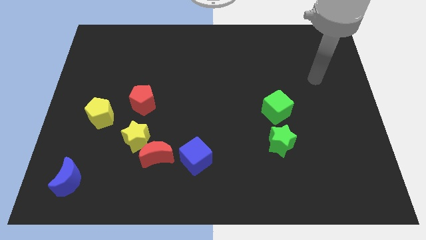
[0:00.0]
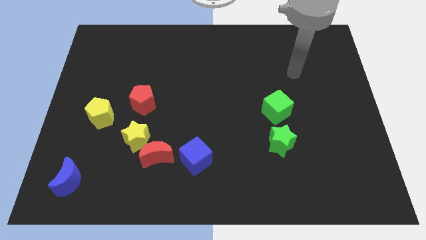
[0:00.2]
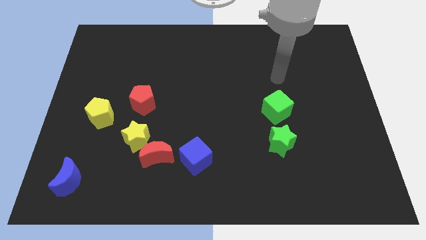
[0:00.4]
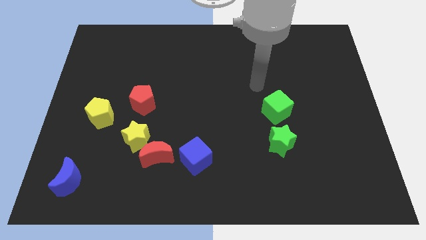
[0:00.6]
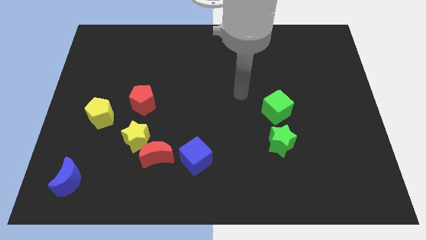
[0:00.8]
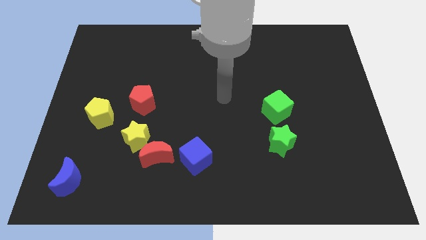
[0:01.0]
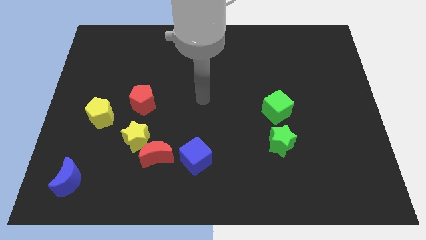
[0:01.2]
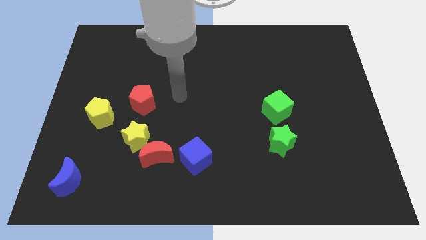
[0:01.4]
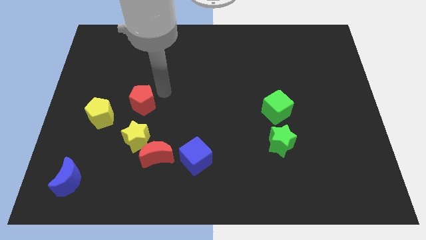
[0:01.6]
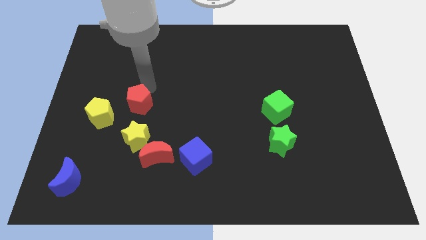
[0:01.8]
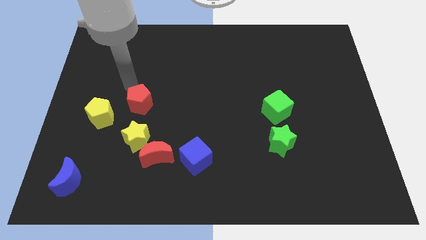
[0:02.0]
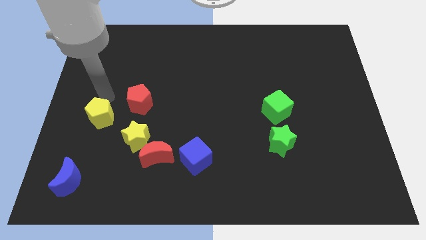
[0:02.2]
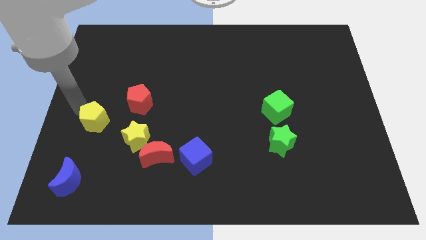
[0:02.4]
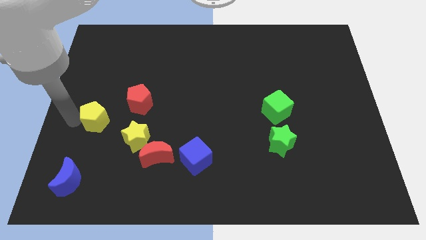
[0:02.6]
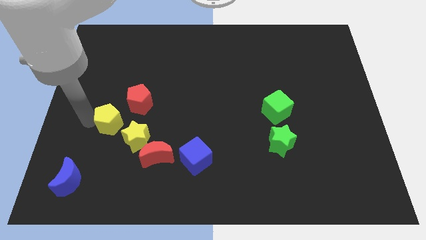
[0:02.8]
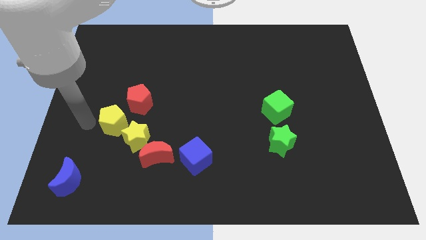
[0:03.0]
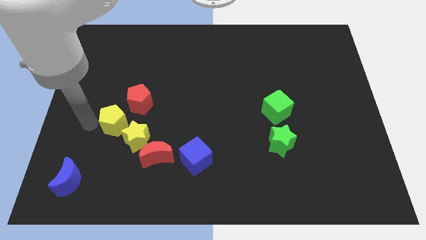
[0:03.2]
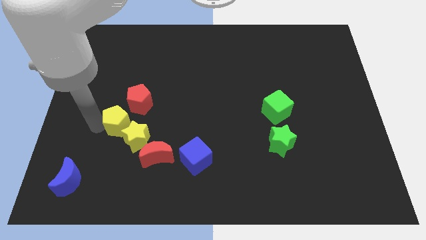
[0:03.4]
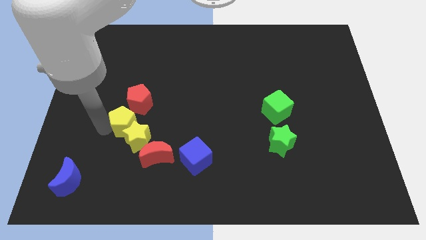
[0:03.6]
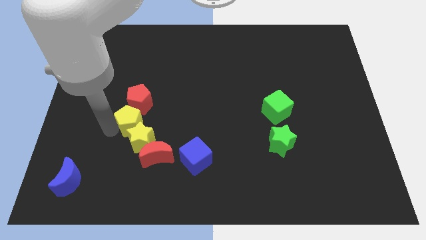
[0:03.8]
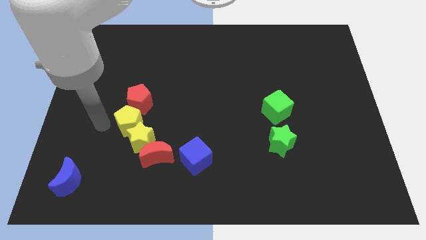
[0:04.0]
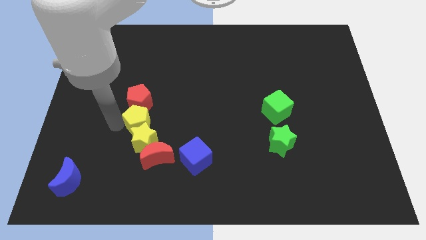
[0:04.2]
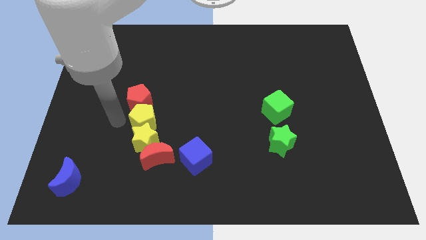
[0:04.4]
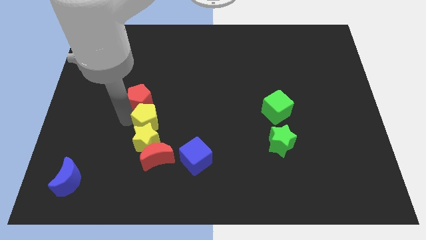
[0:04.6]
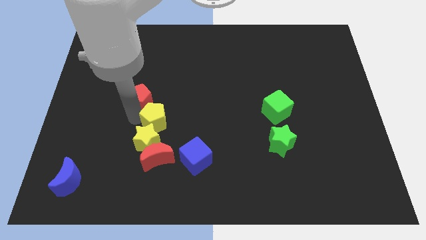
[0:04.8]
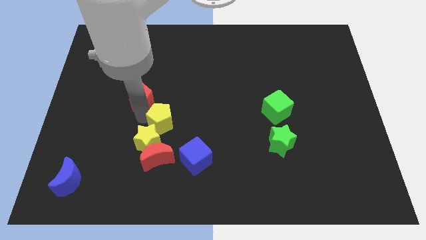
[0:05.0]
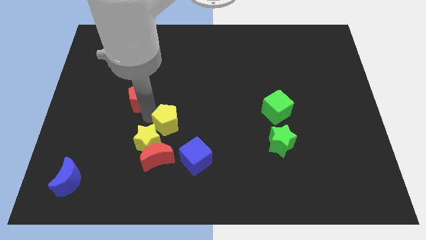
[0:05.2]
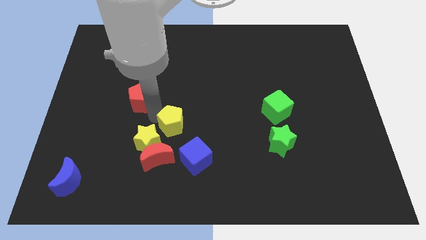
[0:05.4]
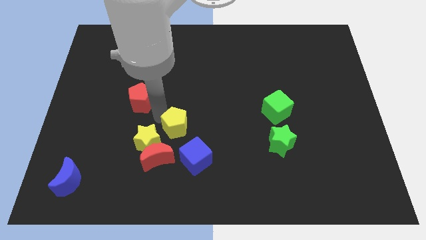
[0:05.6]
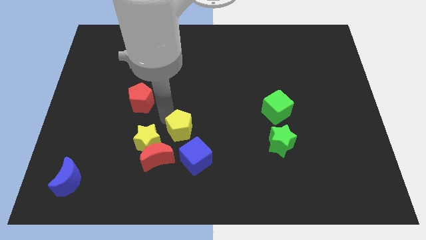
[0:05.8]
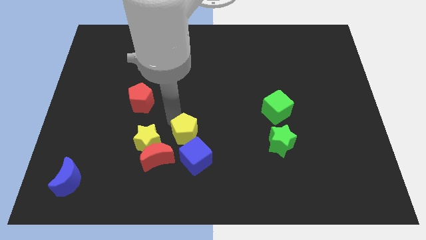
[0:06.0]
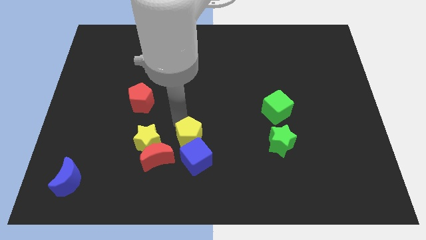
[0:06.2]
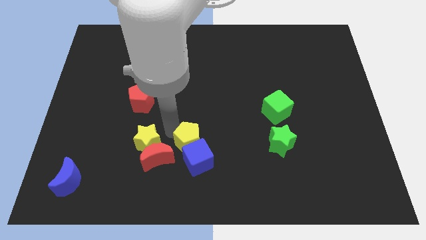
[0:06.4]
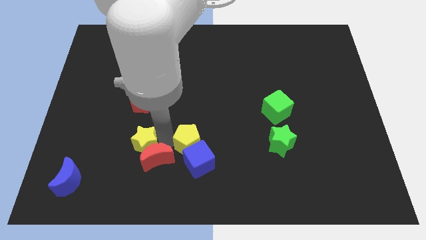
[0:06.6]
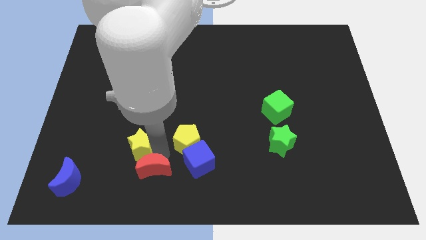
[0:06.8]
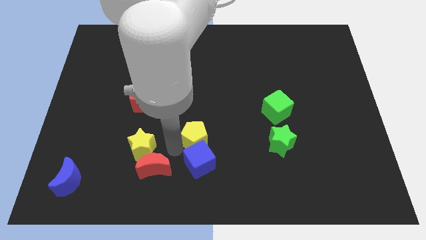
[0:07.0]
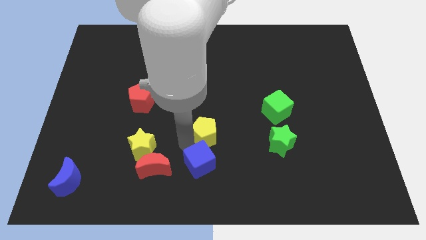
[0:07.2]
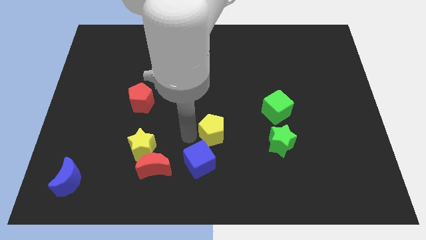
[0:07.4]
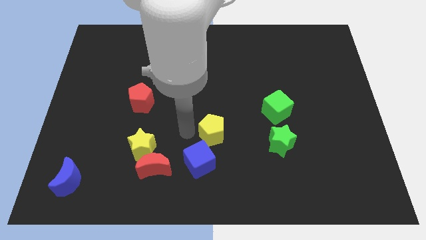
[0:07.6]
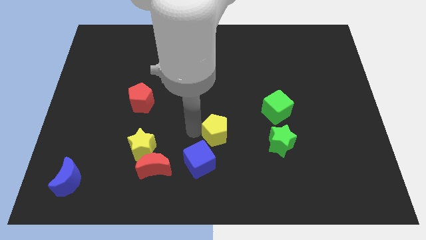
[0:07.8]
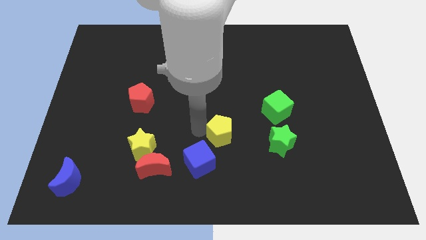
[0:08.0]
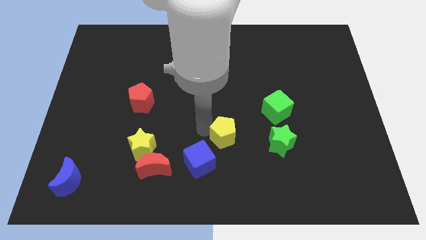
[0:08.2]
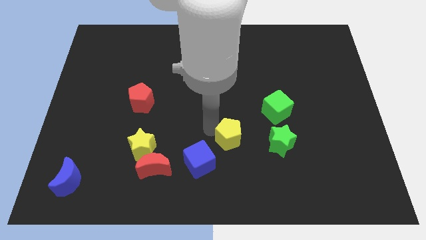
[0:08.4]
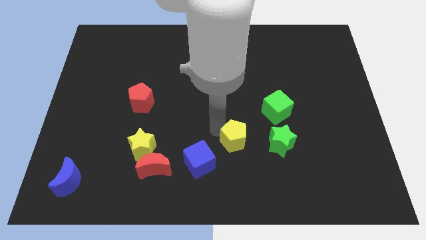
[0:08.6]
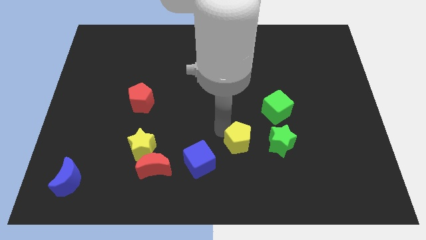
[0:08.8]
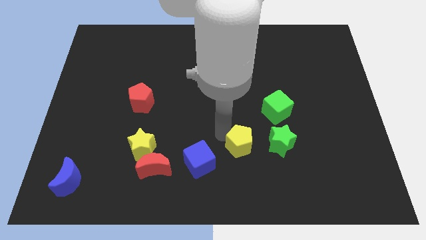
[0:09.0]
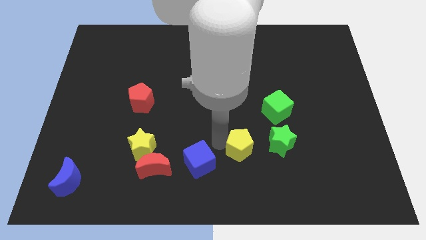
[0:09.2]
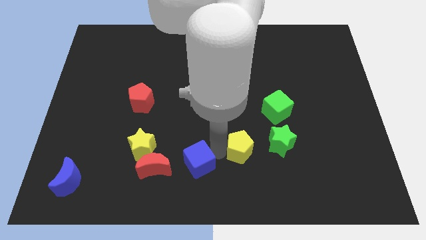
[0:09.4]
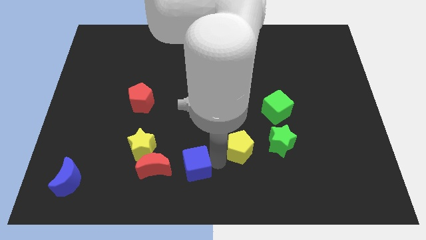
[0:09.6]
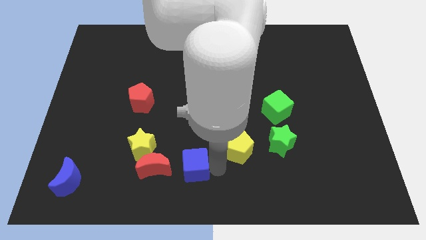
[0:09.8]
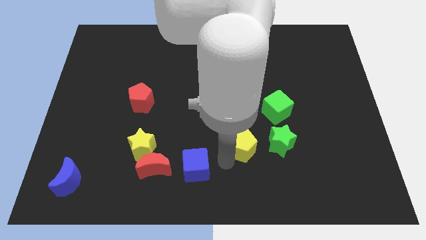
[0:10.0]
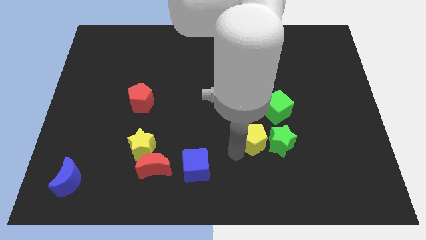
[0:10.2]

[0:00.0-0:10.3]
slide the yellow pentagon next to the green star

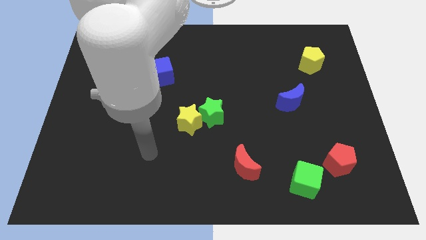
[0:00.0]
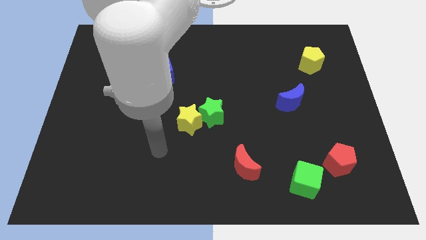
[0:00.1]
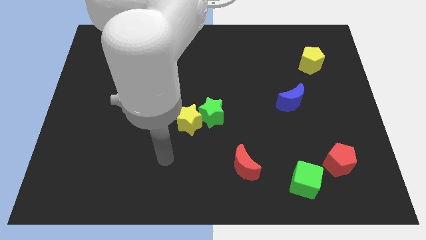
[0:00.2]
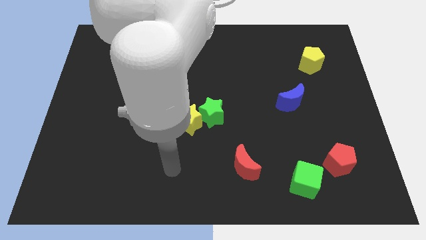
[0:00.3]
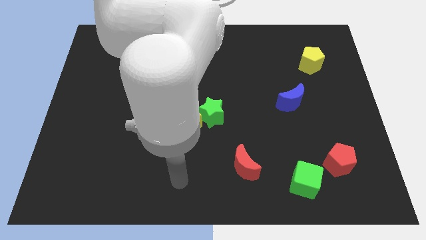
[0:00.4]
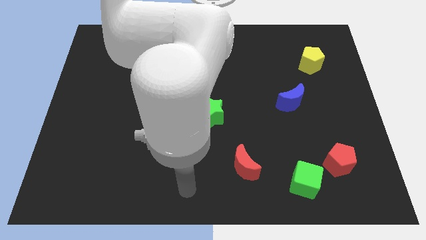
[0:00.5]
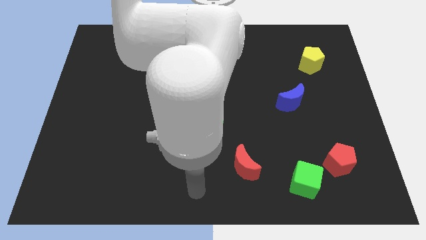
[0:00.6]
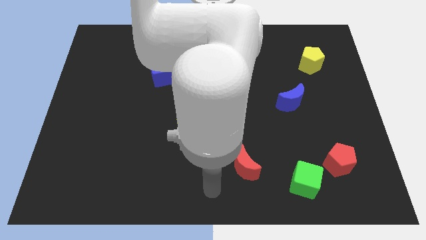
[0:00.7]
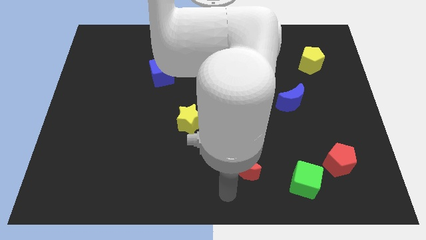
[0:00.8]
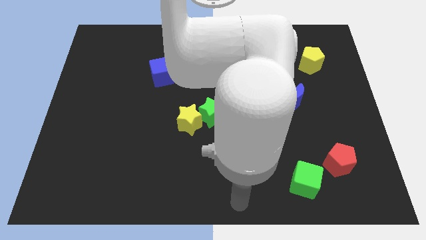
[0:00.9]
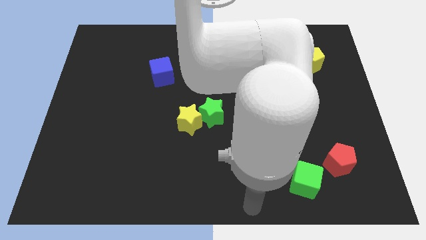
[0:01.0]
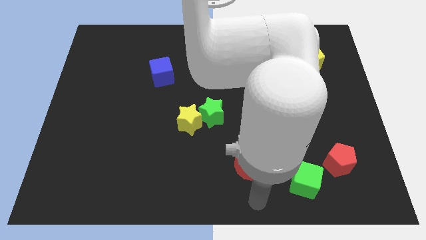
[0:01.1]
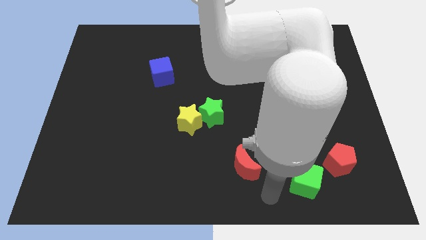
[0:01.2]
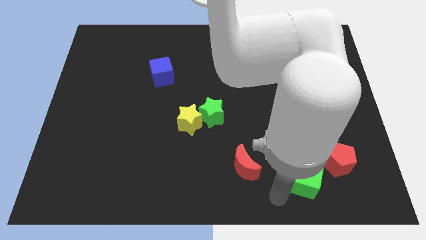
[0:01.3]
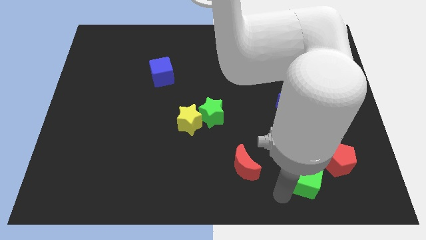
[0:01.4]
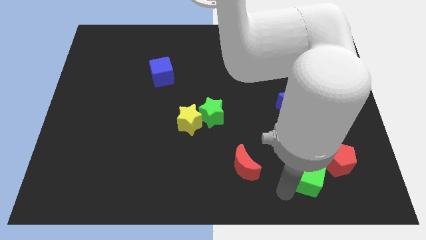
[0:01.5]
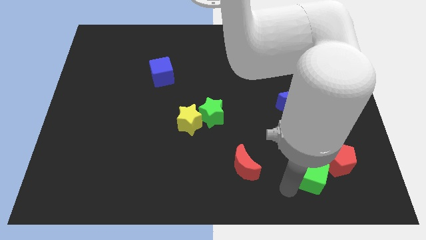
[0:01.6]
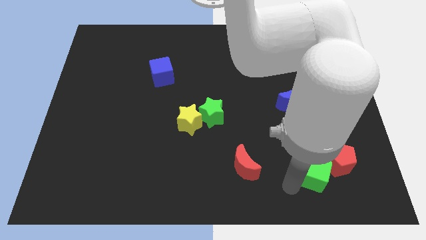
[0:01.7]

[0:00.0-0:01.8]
slide the green cube to the red pentagon
